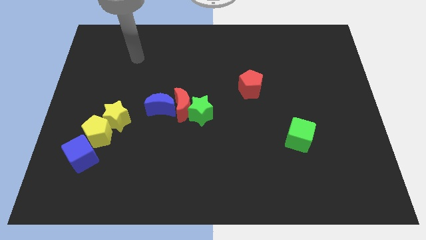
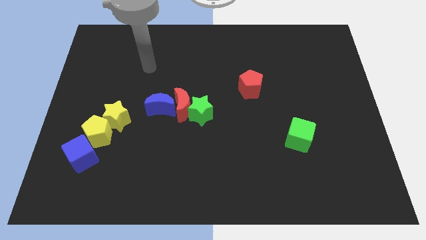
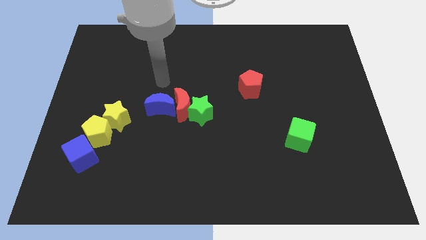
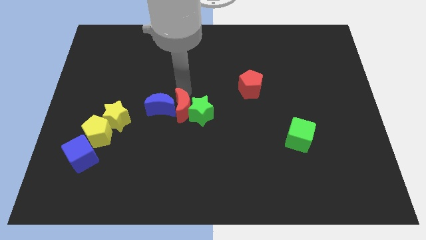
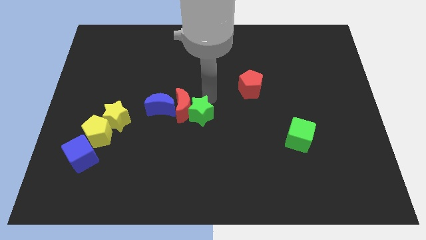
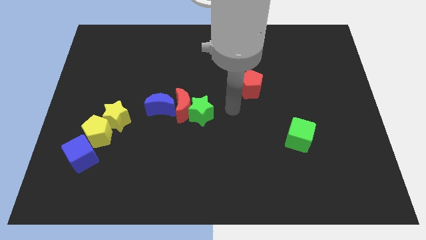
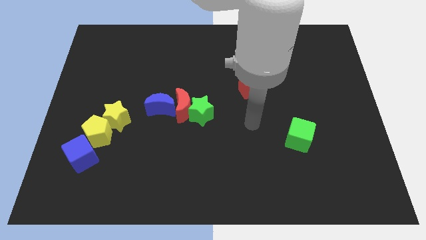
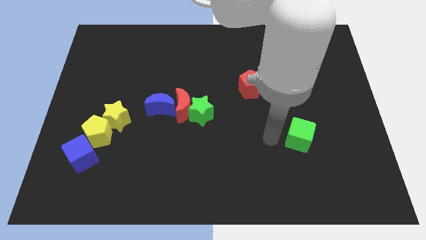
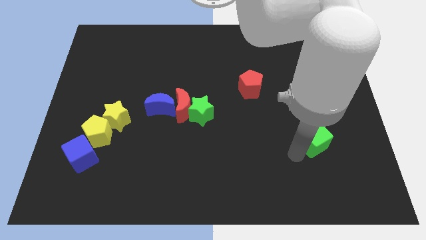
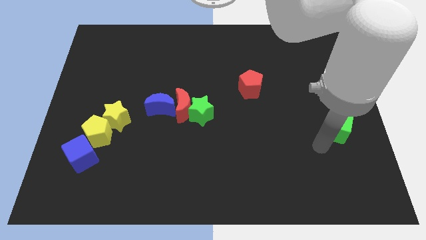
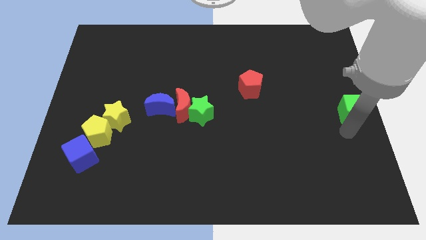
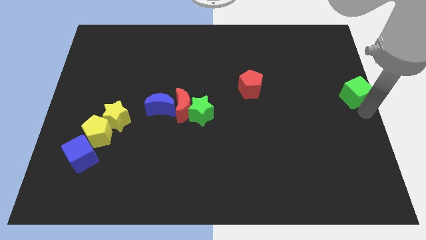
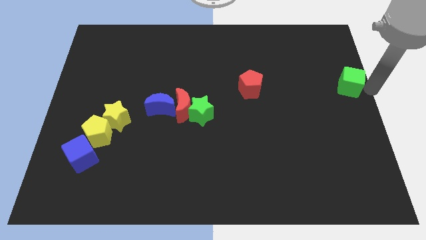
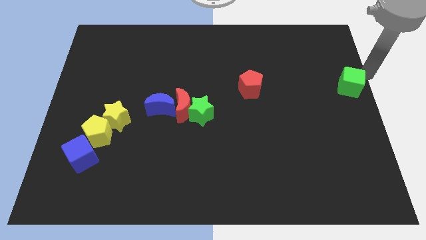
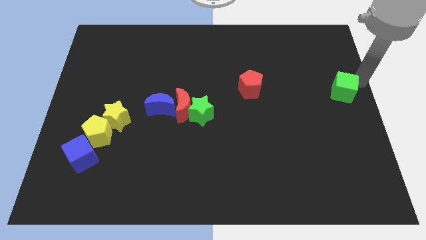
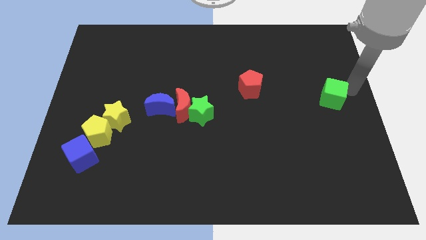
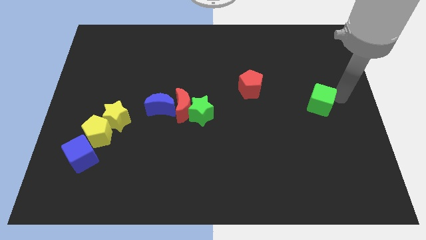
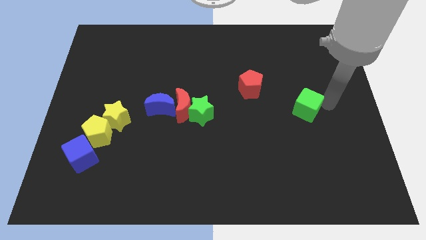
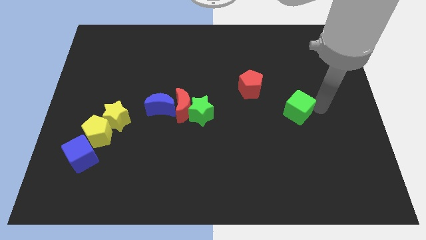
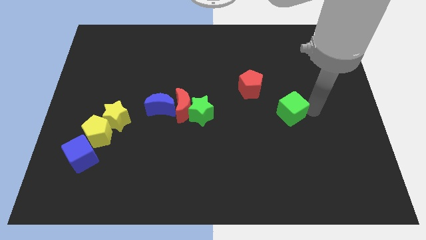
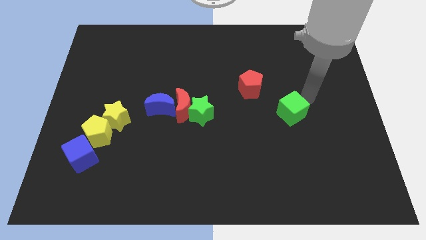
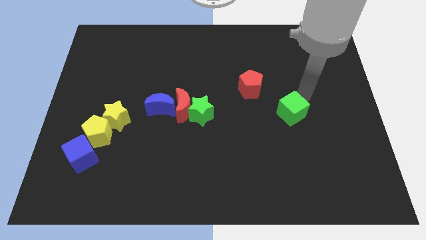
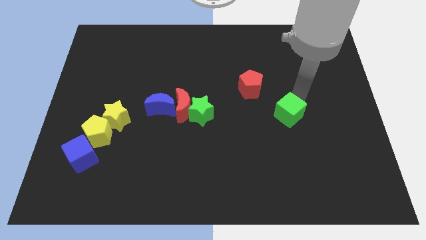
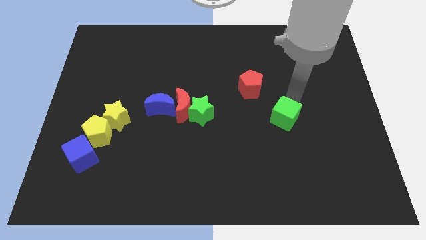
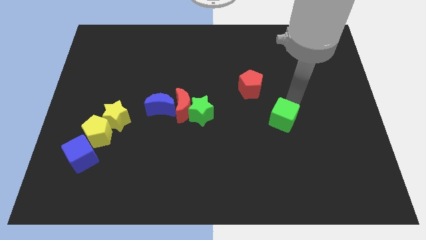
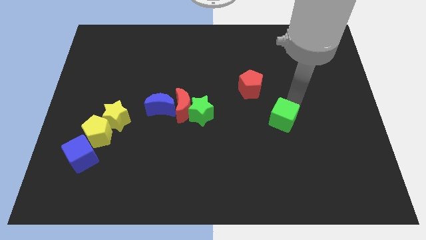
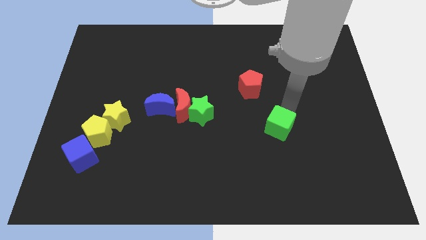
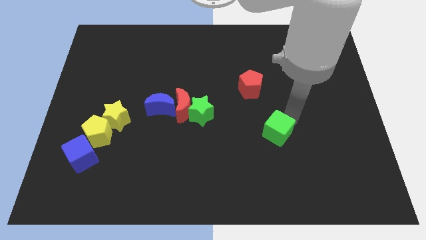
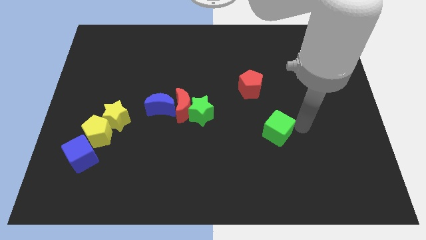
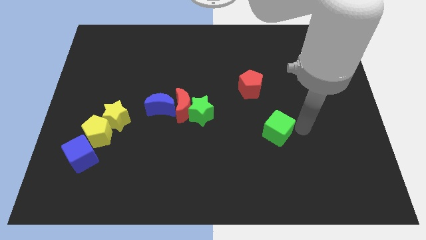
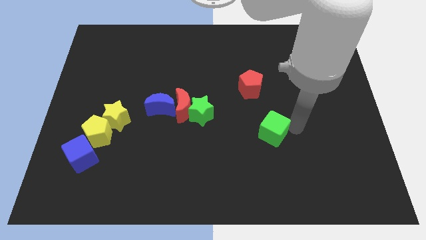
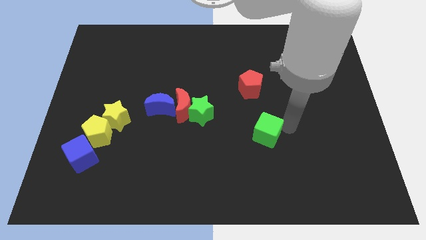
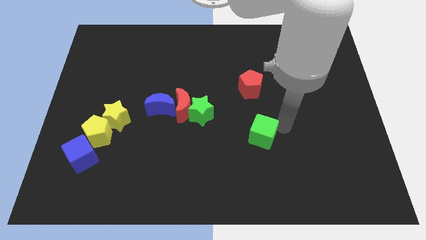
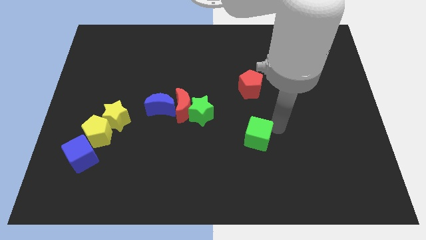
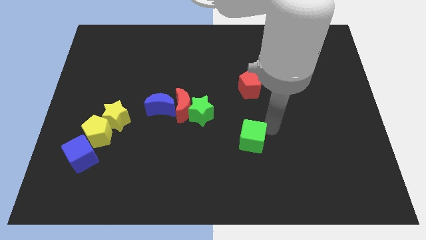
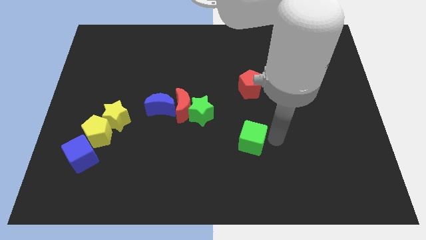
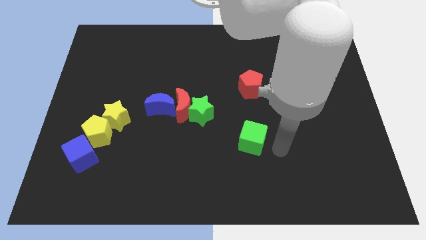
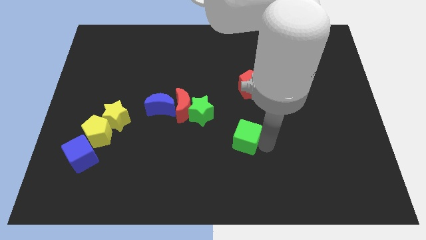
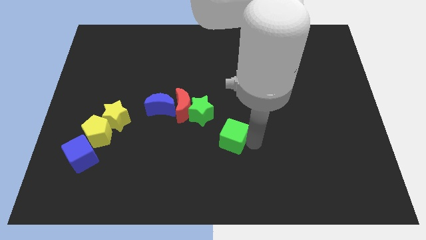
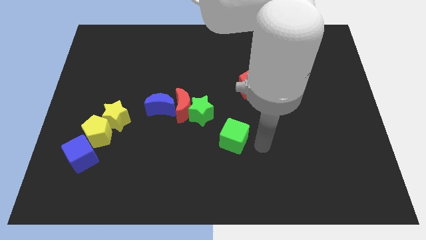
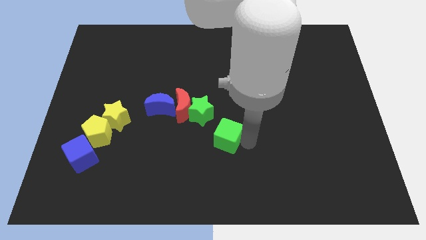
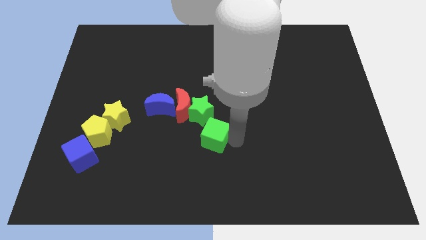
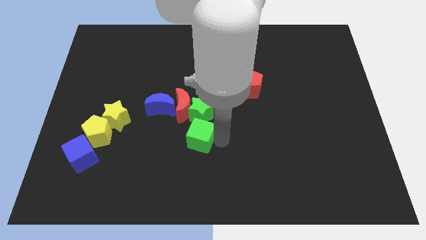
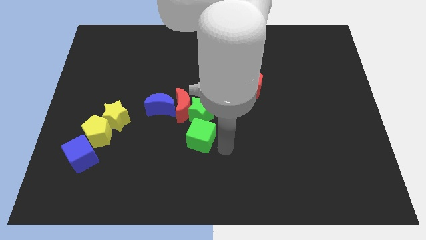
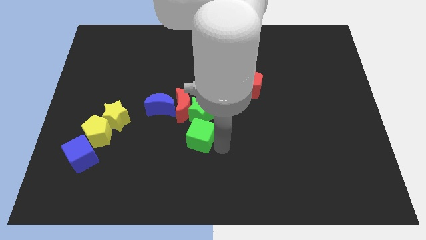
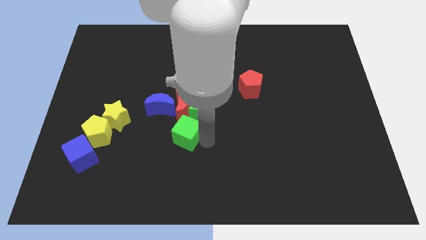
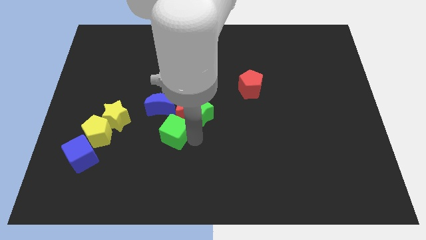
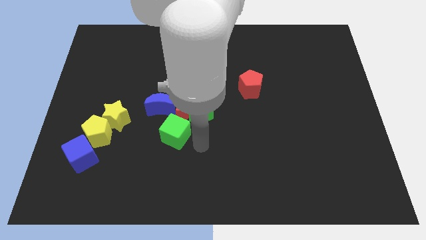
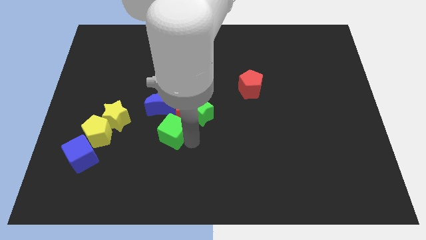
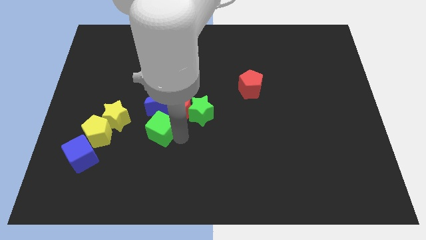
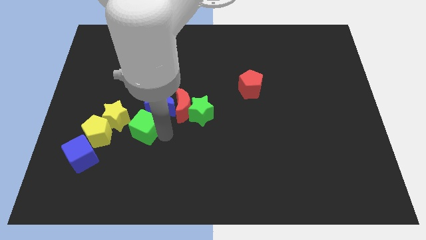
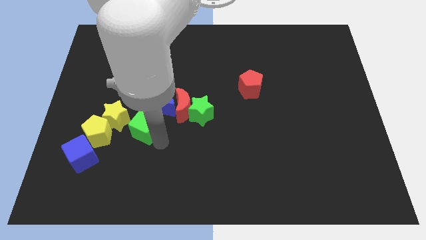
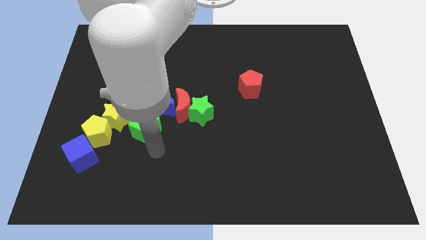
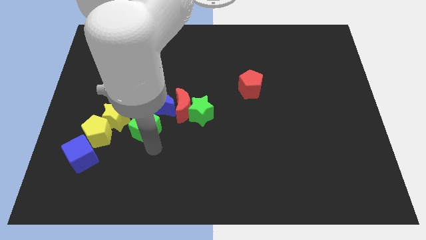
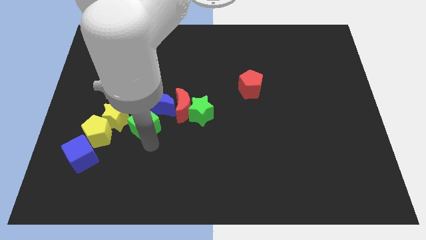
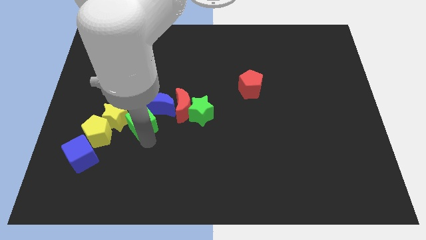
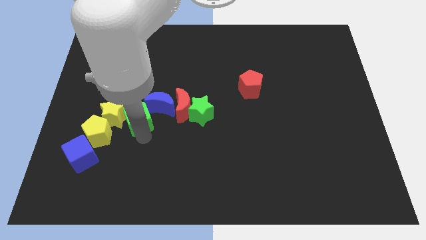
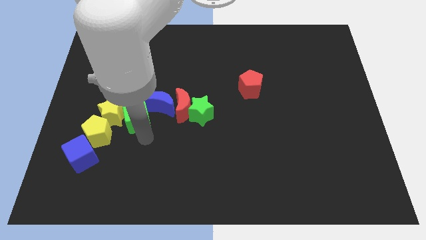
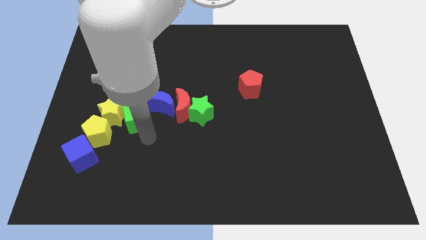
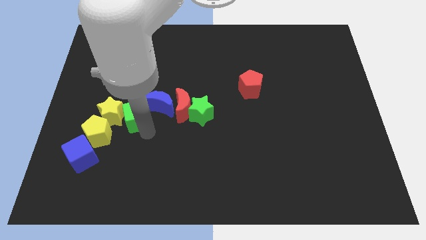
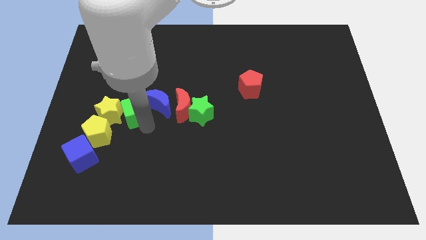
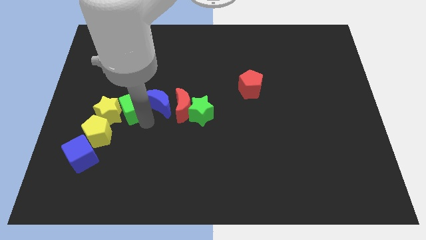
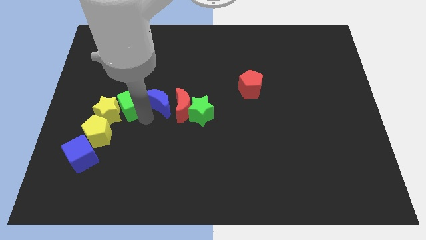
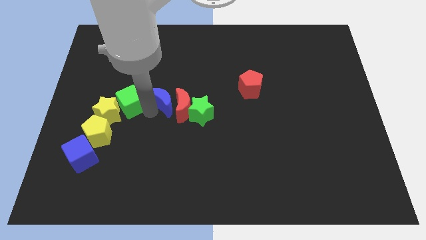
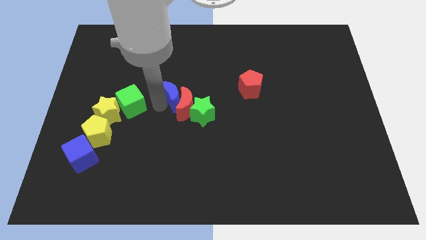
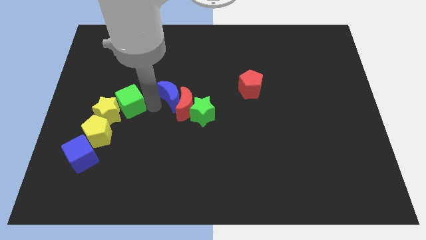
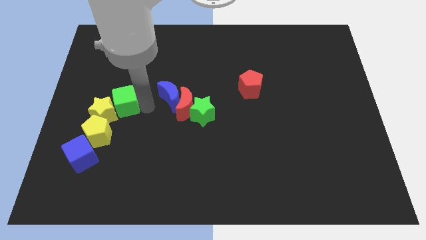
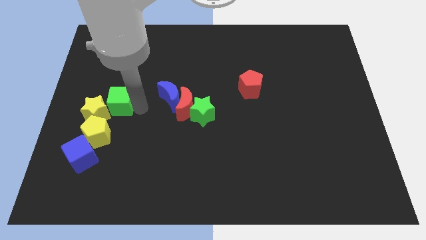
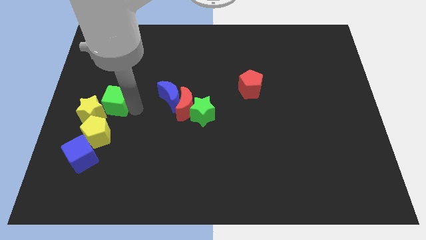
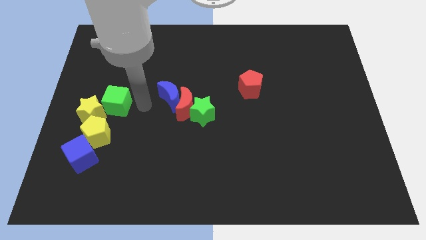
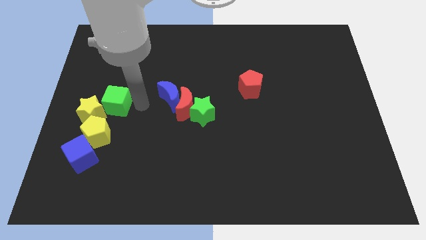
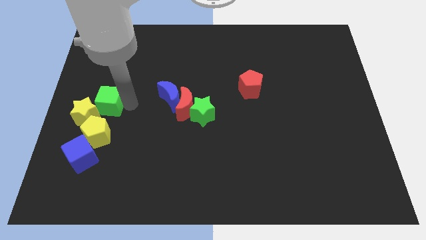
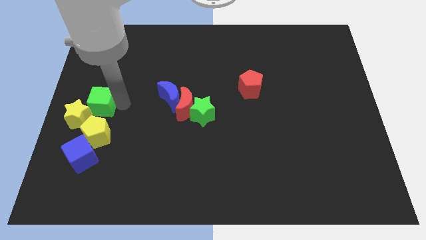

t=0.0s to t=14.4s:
push the green cube to the center left

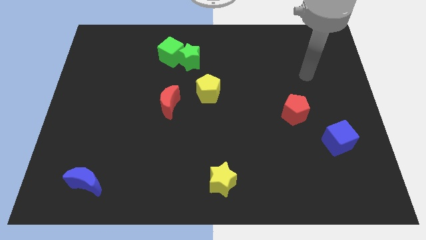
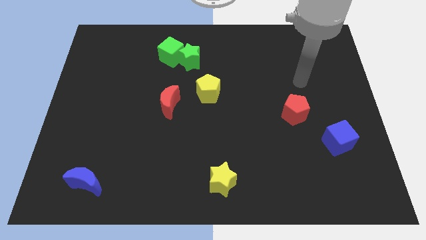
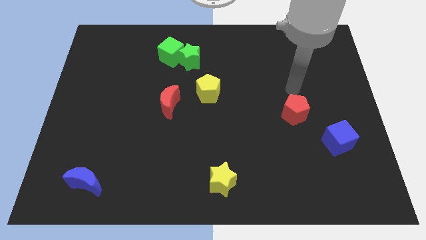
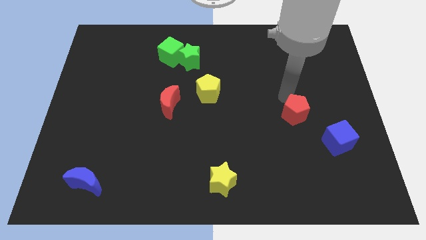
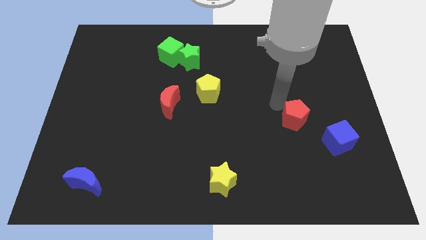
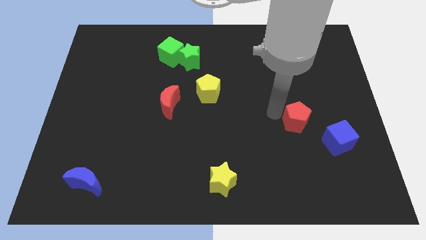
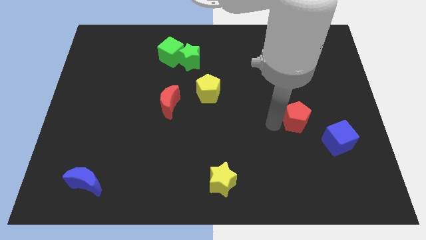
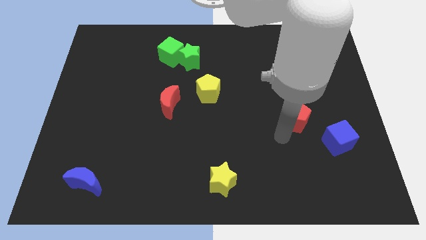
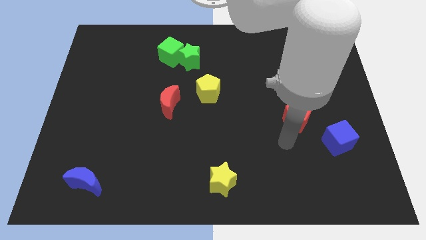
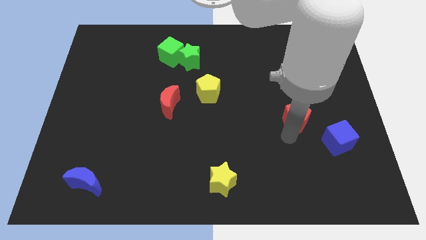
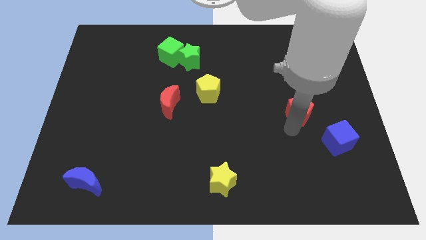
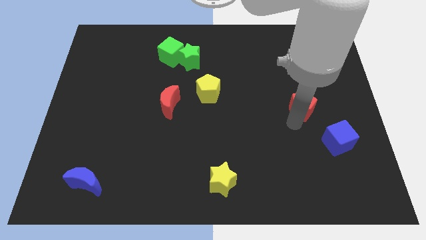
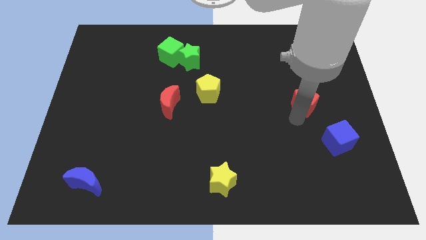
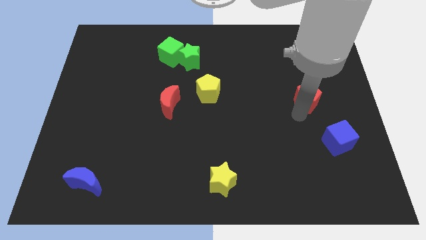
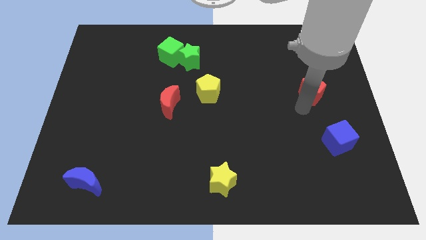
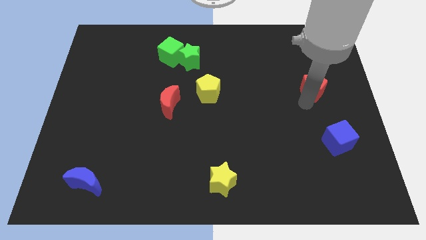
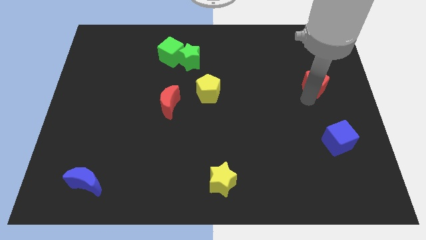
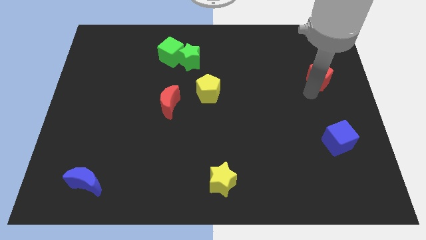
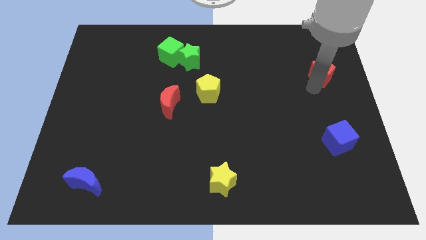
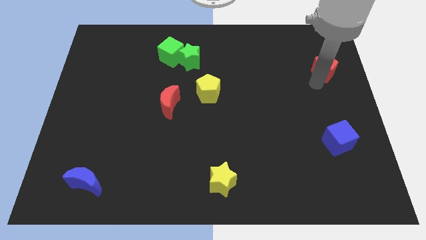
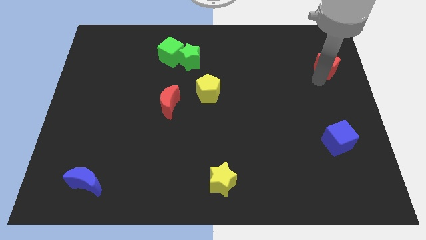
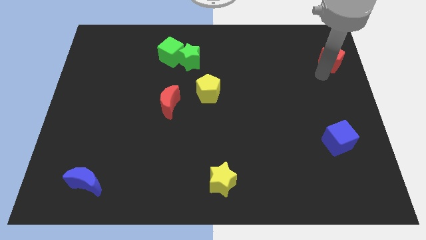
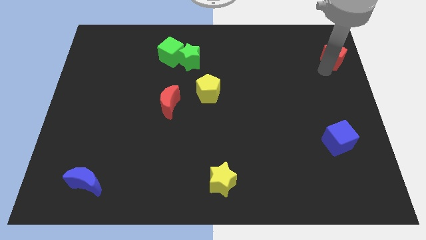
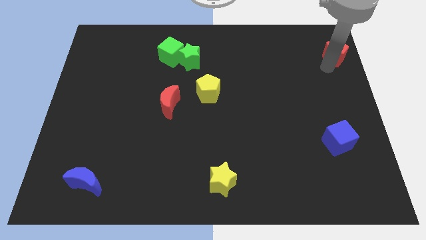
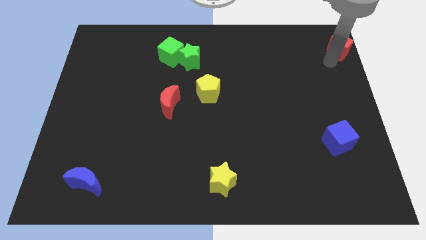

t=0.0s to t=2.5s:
move the red pentagon to the upper right corner
